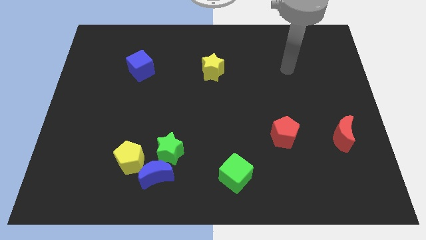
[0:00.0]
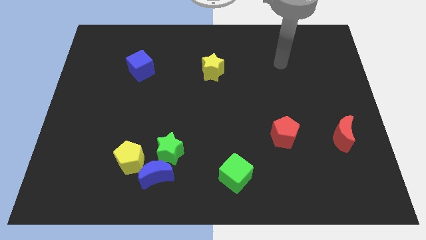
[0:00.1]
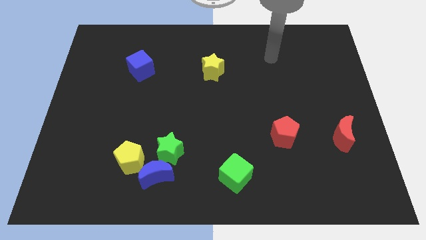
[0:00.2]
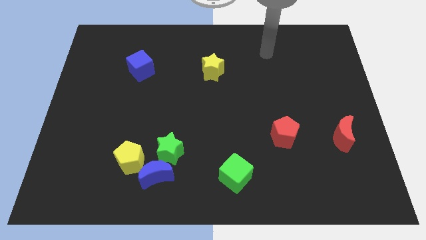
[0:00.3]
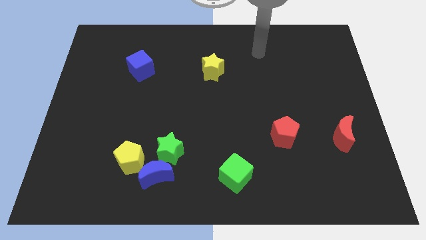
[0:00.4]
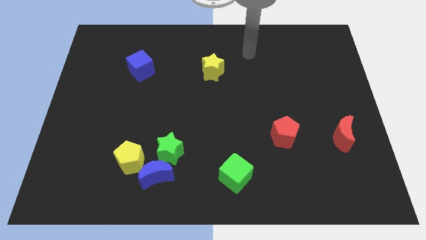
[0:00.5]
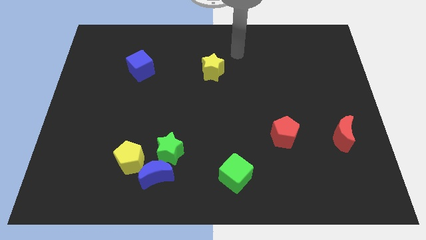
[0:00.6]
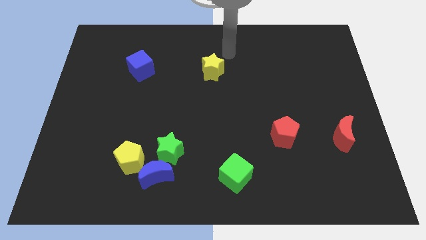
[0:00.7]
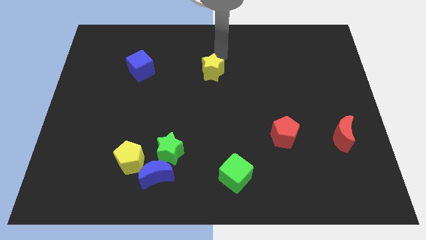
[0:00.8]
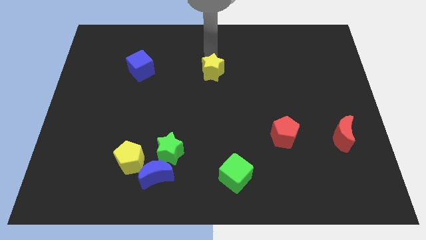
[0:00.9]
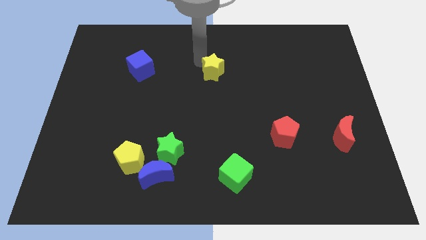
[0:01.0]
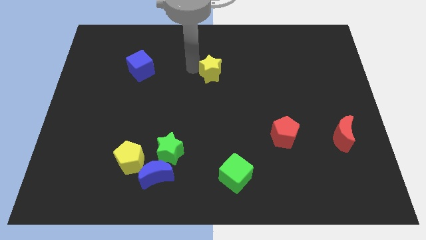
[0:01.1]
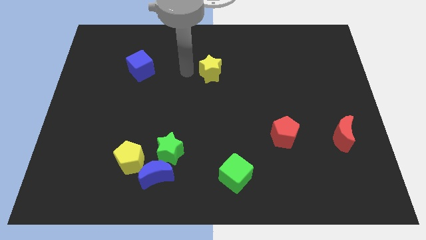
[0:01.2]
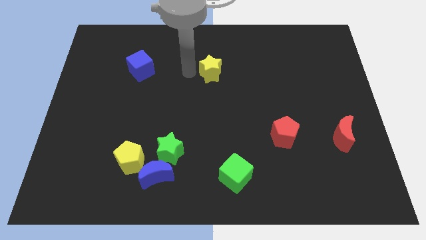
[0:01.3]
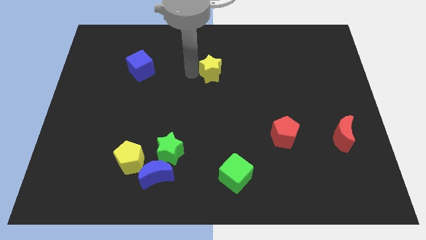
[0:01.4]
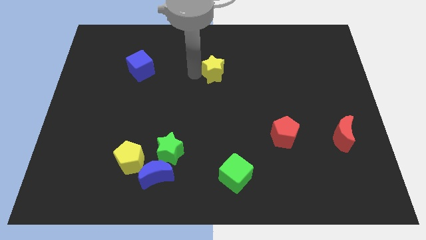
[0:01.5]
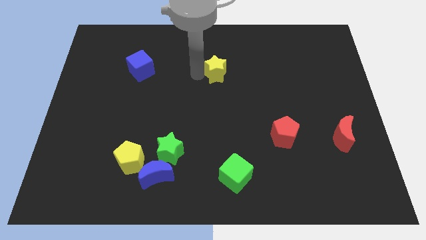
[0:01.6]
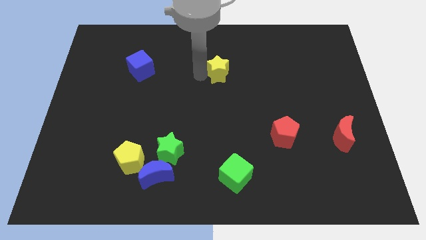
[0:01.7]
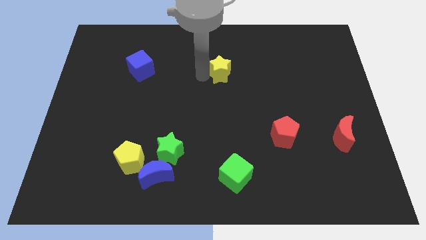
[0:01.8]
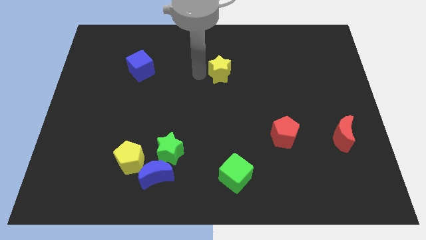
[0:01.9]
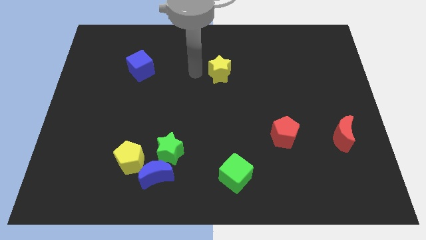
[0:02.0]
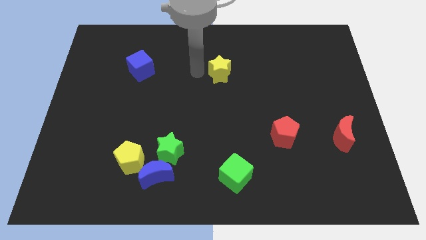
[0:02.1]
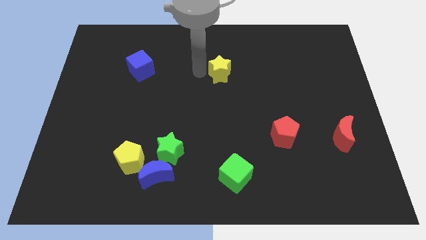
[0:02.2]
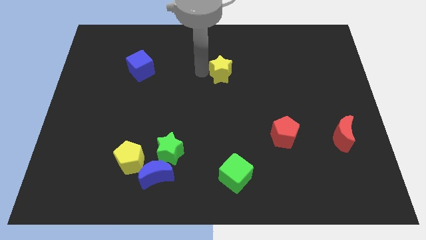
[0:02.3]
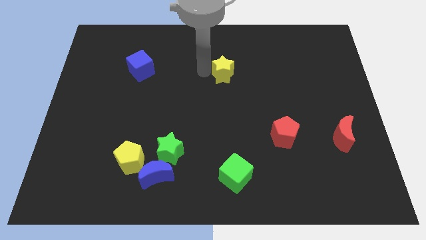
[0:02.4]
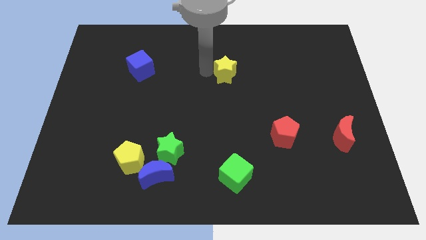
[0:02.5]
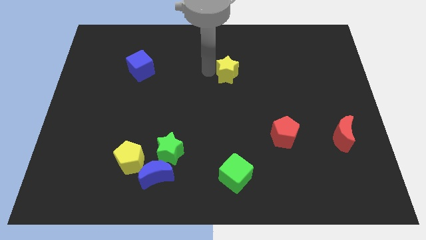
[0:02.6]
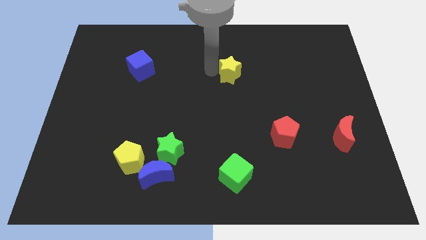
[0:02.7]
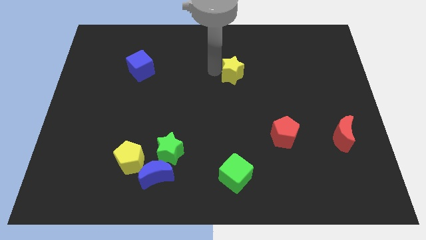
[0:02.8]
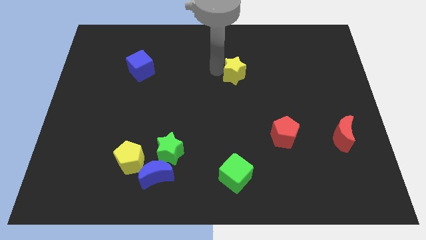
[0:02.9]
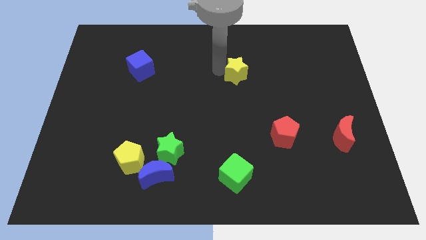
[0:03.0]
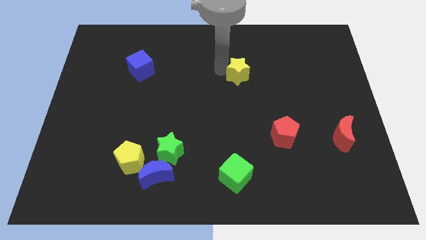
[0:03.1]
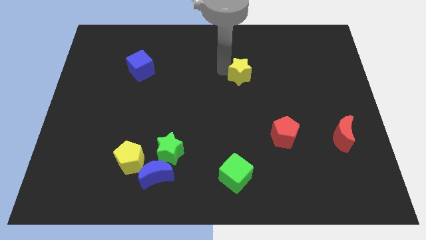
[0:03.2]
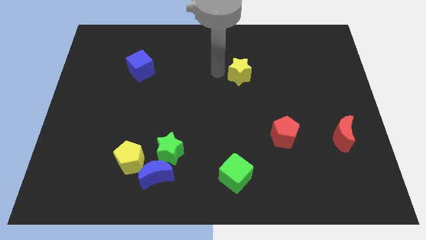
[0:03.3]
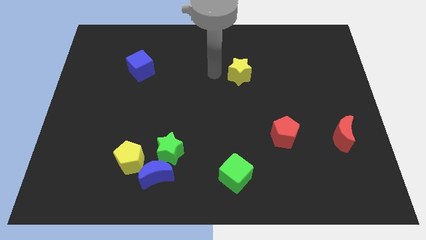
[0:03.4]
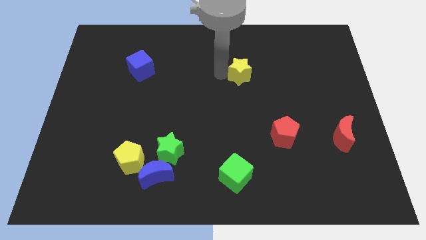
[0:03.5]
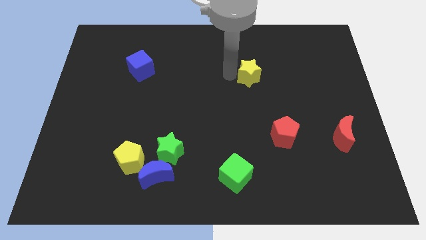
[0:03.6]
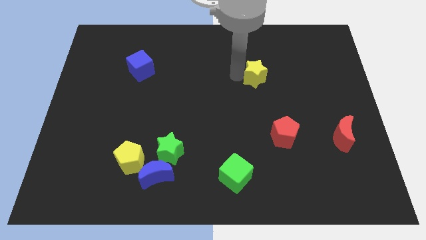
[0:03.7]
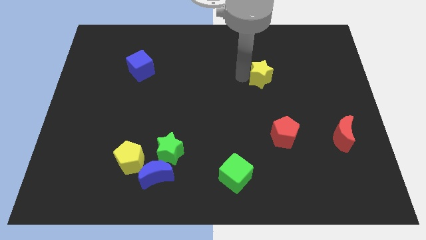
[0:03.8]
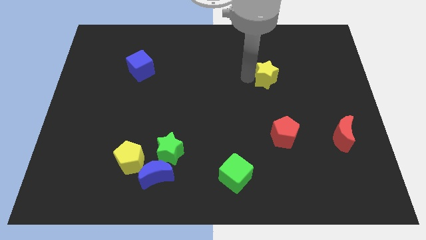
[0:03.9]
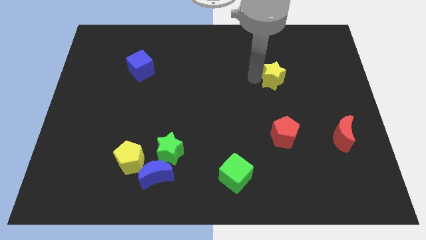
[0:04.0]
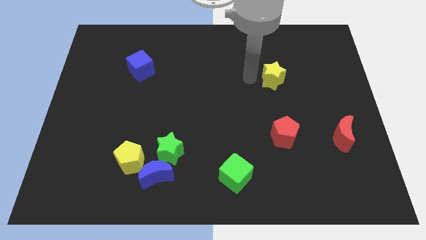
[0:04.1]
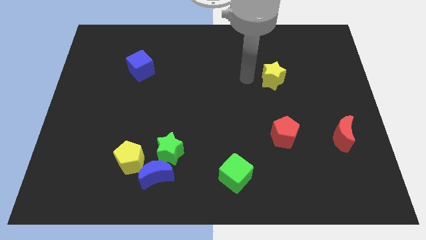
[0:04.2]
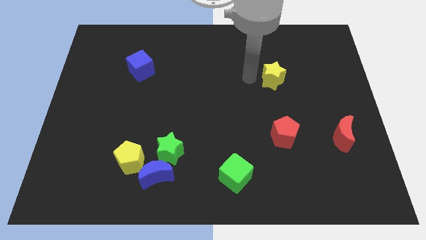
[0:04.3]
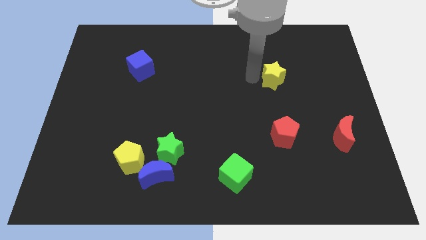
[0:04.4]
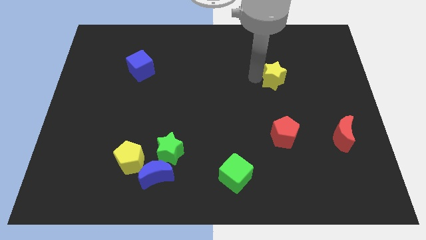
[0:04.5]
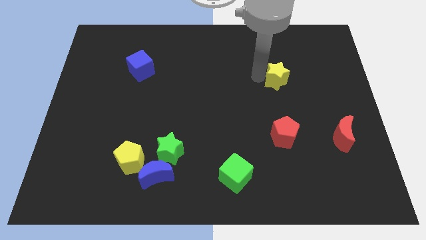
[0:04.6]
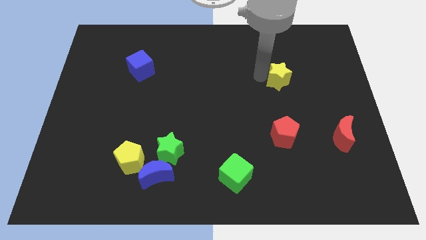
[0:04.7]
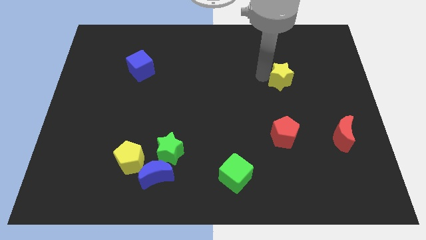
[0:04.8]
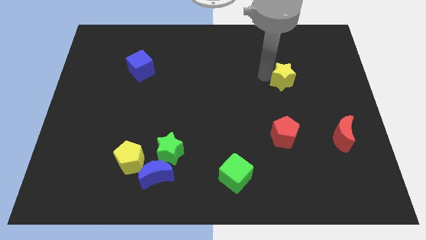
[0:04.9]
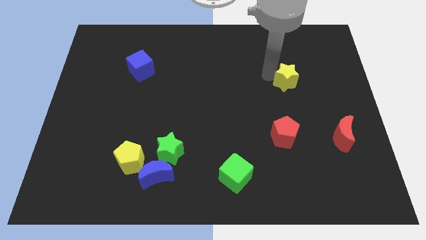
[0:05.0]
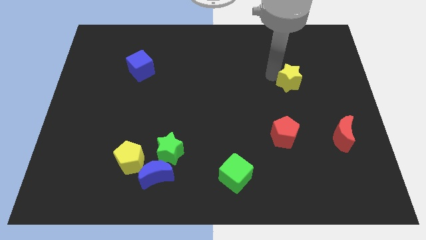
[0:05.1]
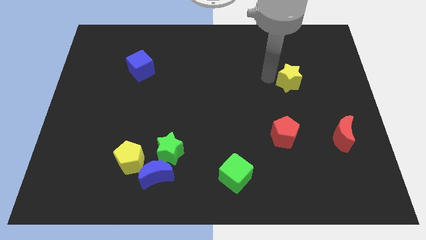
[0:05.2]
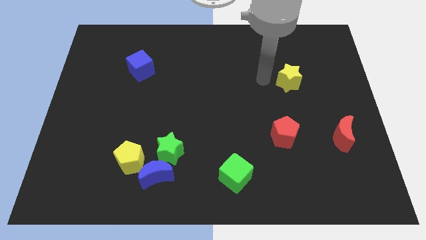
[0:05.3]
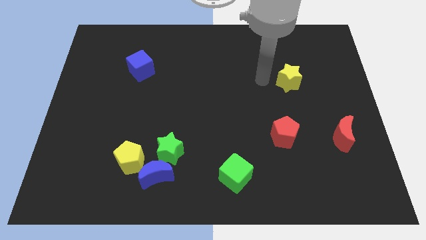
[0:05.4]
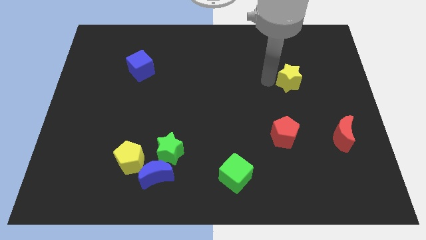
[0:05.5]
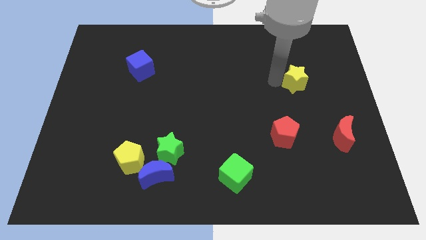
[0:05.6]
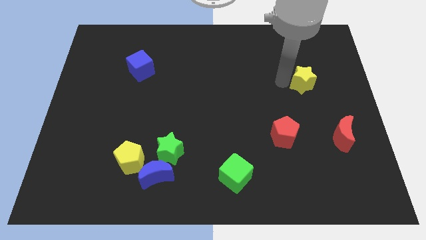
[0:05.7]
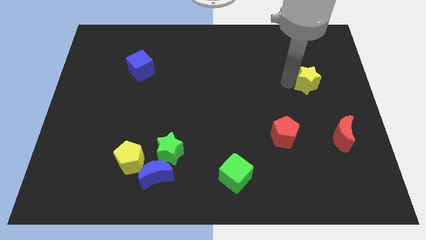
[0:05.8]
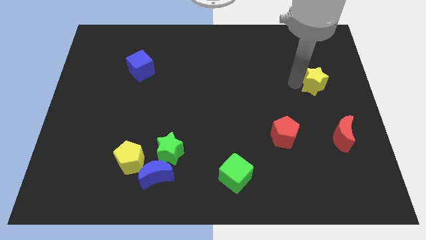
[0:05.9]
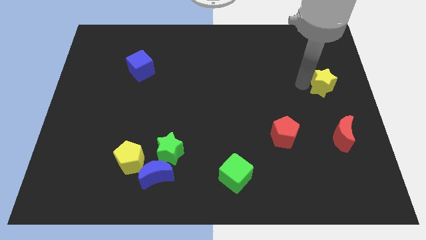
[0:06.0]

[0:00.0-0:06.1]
push the yellow star to the center right

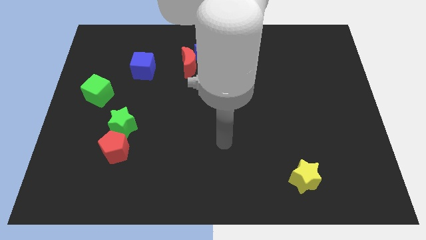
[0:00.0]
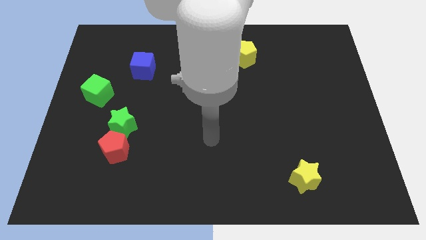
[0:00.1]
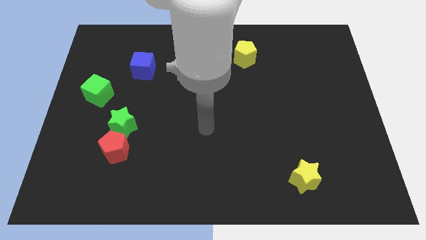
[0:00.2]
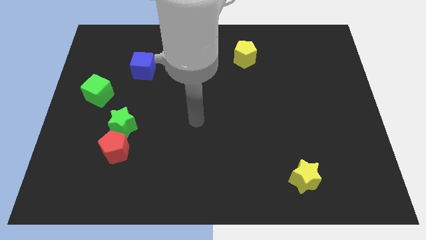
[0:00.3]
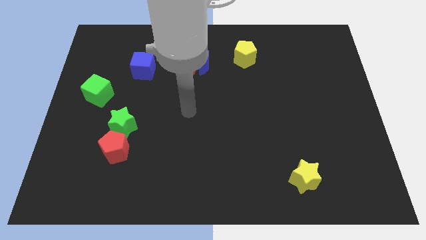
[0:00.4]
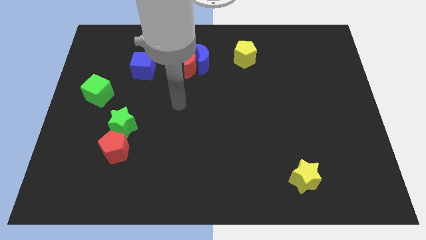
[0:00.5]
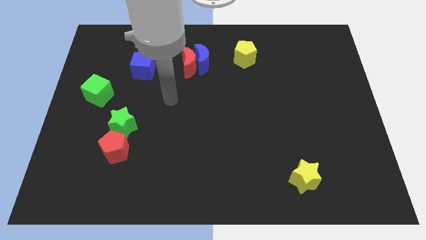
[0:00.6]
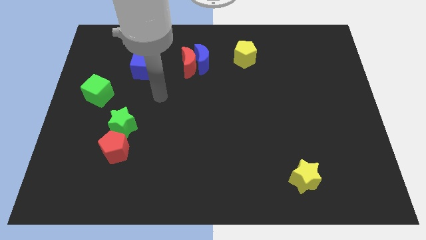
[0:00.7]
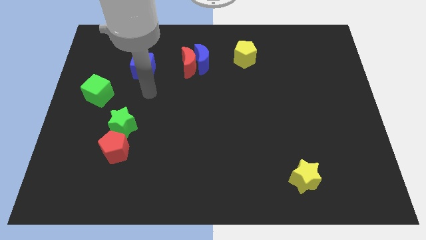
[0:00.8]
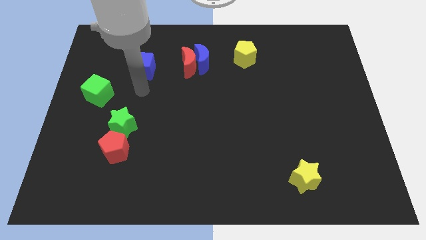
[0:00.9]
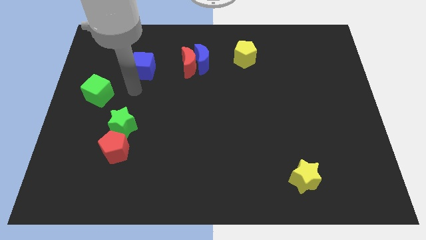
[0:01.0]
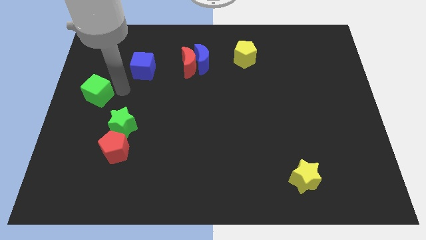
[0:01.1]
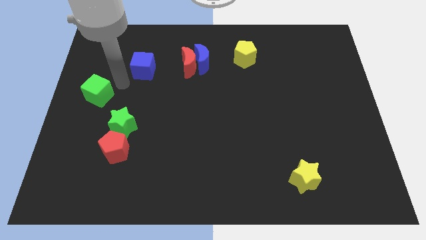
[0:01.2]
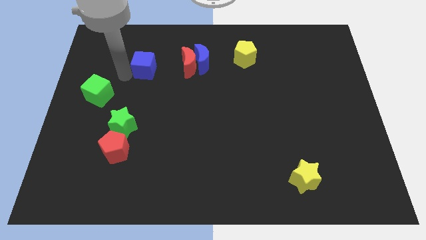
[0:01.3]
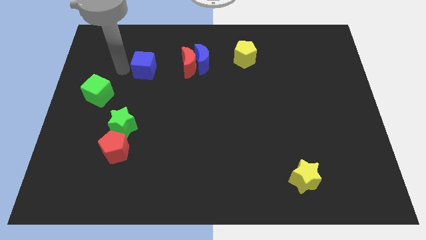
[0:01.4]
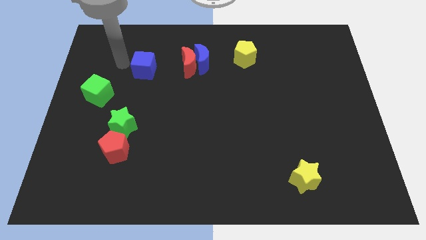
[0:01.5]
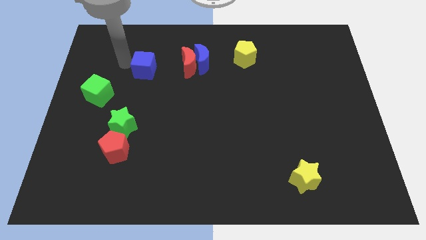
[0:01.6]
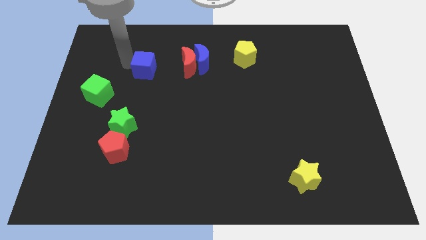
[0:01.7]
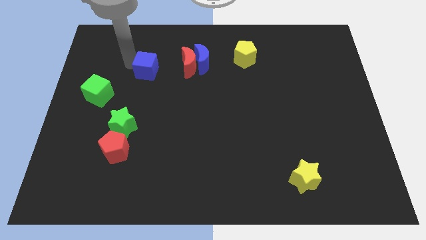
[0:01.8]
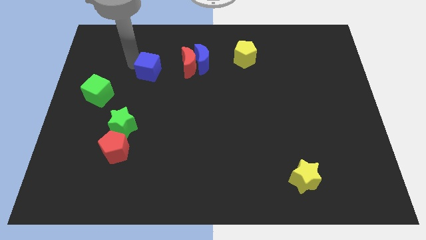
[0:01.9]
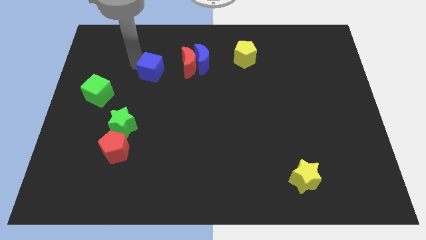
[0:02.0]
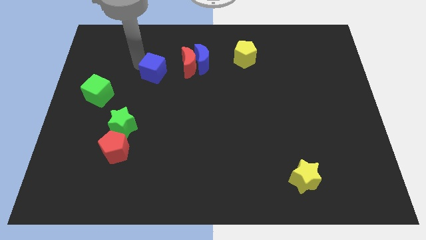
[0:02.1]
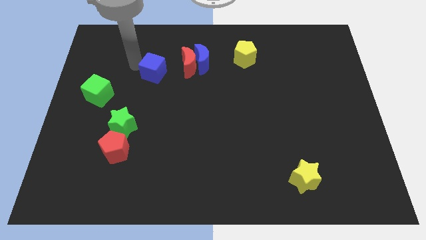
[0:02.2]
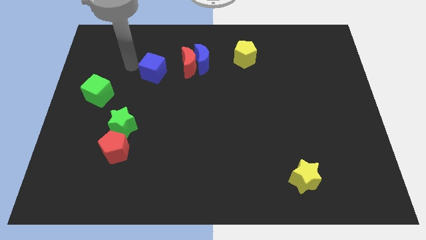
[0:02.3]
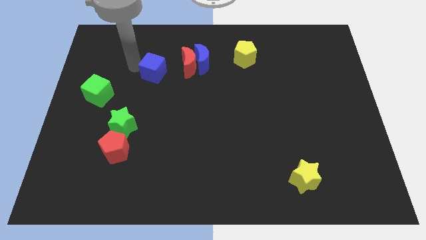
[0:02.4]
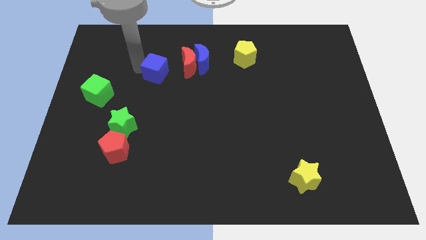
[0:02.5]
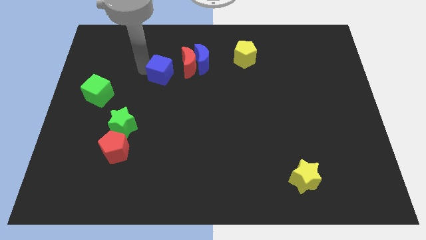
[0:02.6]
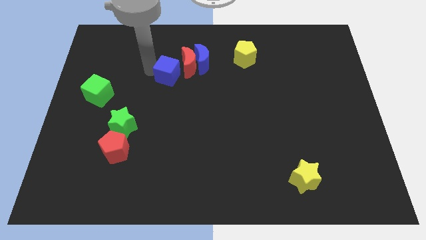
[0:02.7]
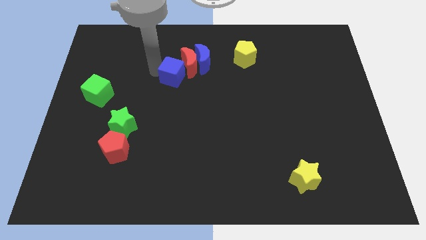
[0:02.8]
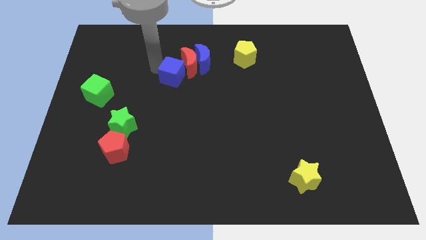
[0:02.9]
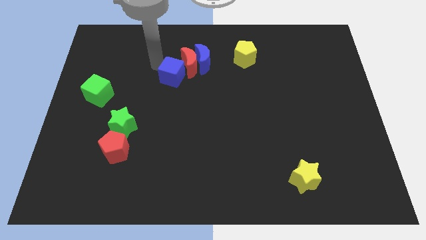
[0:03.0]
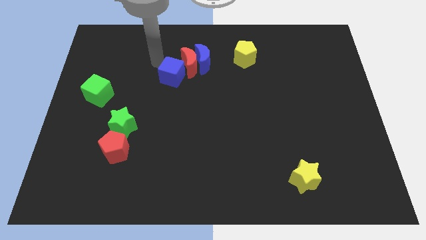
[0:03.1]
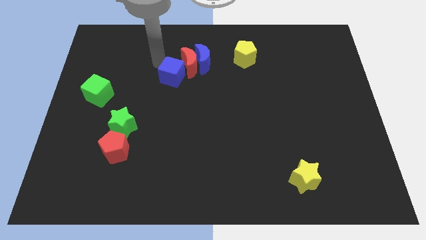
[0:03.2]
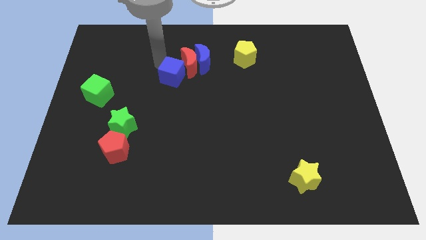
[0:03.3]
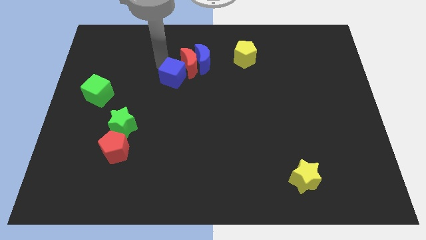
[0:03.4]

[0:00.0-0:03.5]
move the blue cube to the middle of the board
